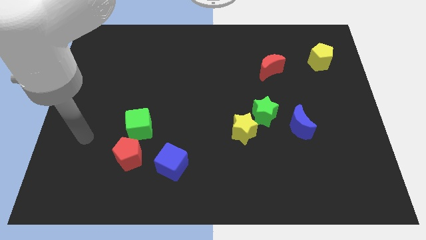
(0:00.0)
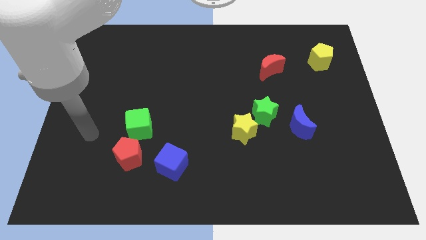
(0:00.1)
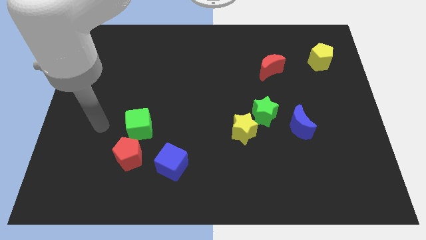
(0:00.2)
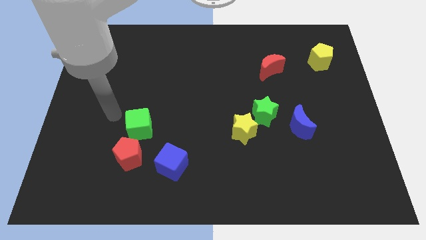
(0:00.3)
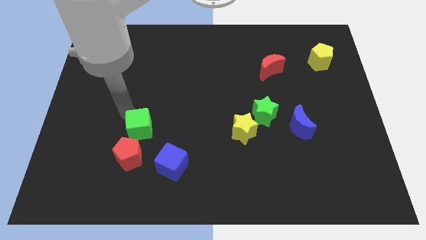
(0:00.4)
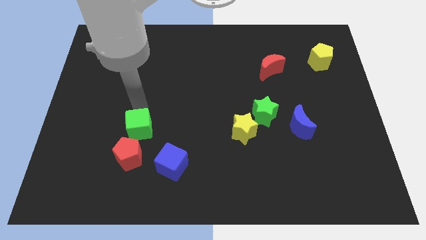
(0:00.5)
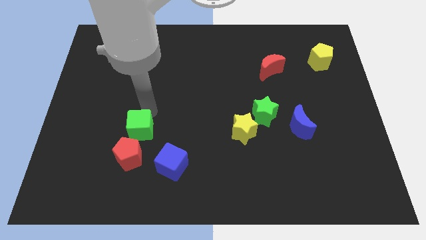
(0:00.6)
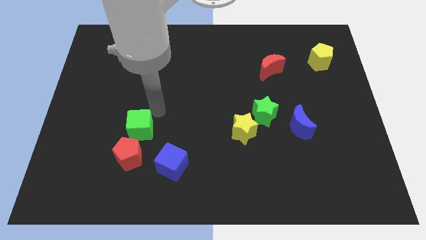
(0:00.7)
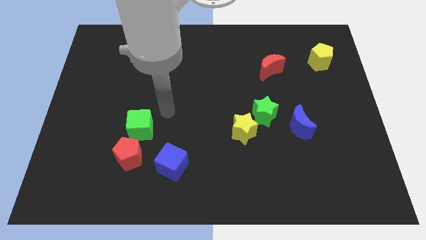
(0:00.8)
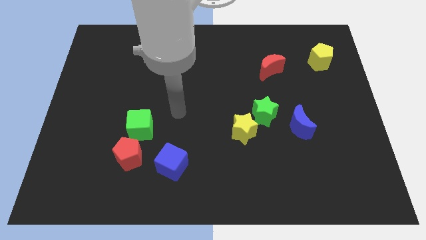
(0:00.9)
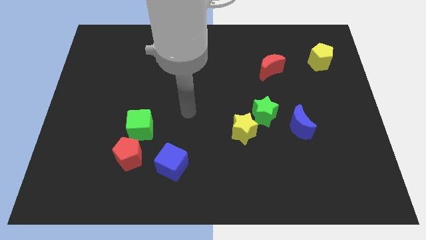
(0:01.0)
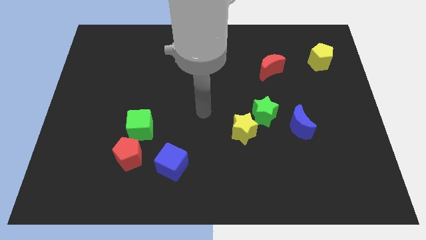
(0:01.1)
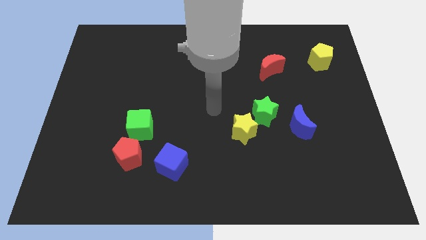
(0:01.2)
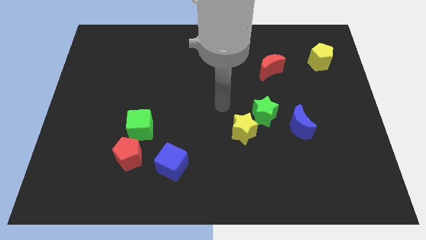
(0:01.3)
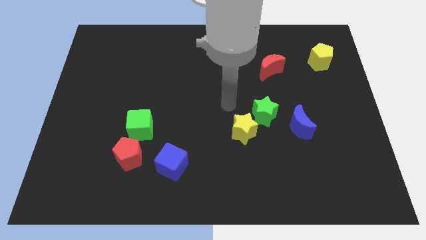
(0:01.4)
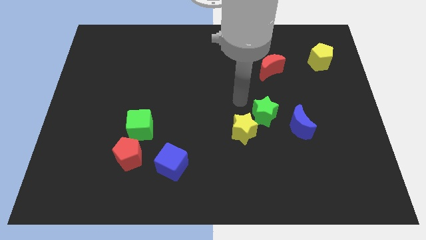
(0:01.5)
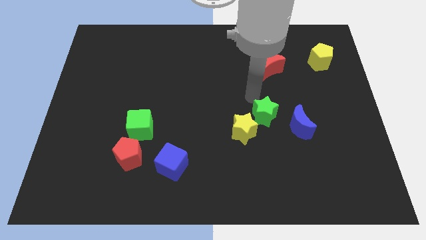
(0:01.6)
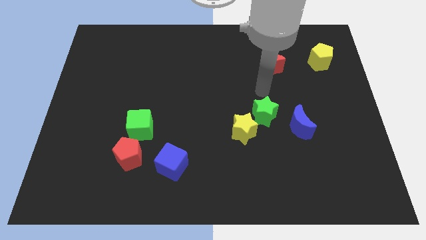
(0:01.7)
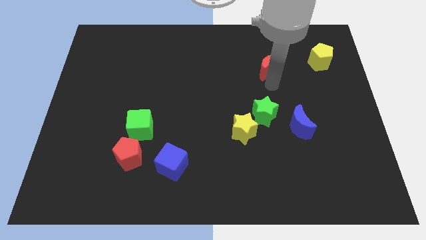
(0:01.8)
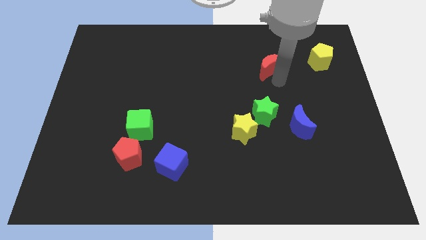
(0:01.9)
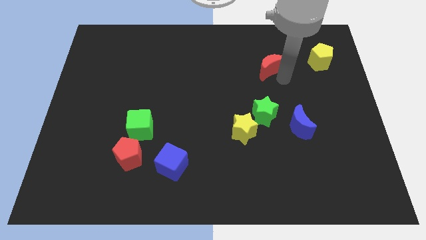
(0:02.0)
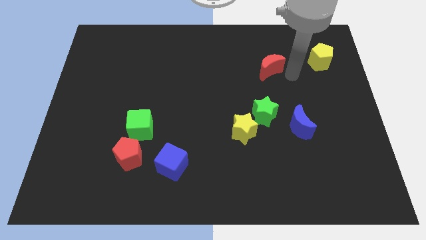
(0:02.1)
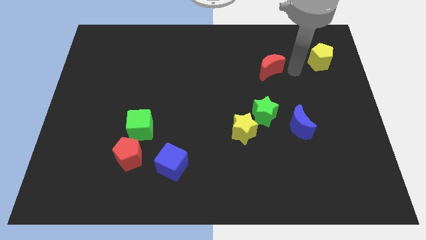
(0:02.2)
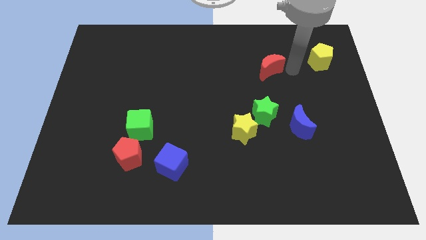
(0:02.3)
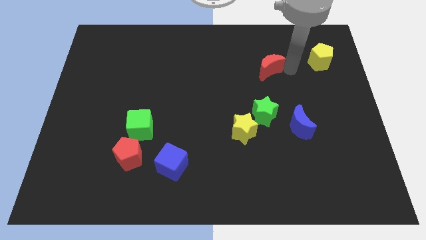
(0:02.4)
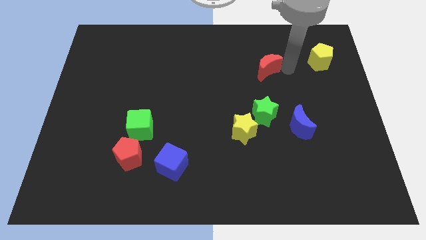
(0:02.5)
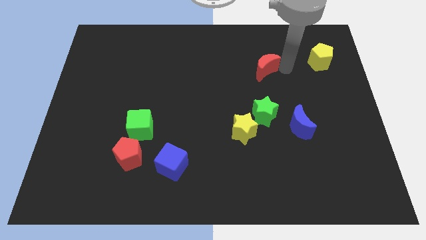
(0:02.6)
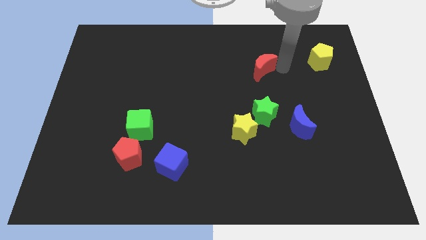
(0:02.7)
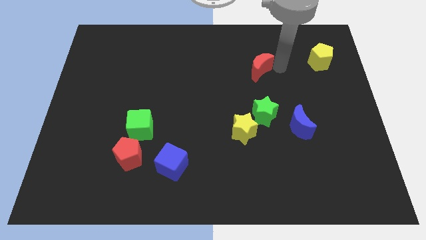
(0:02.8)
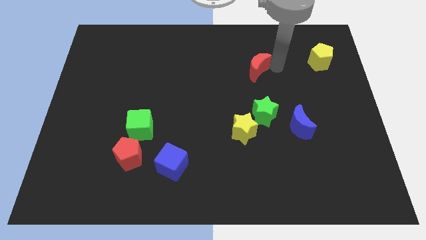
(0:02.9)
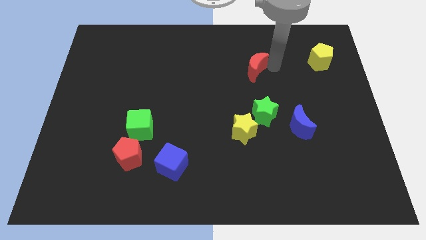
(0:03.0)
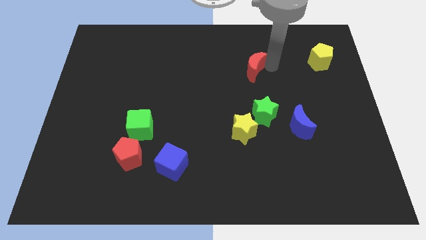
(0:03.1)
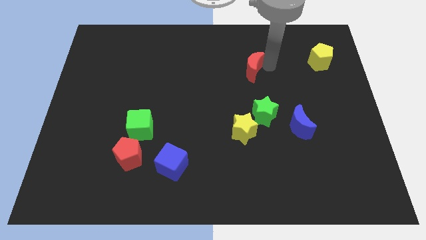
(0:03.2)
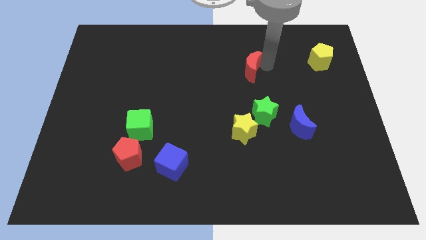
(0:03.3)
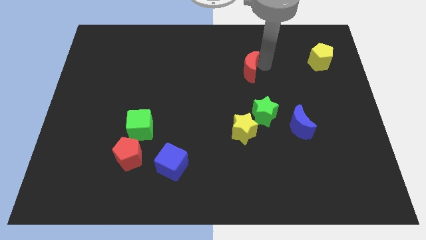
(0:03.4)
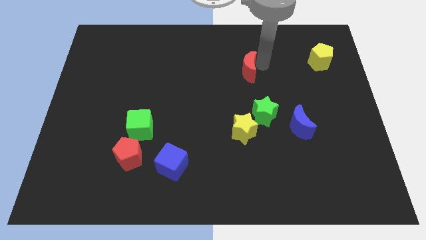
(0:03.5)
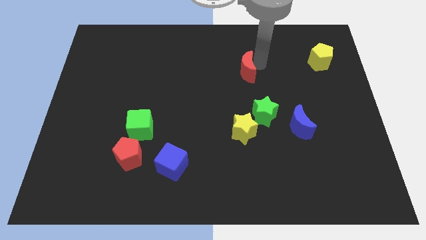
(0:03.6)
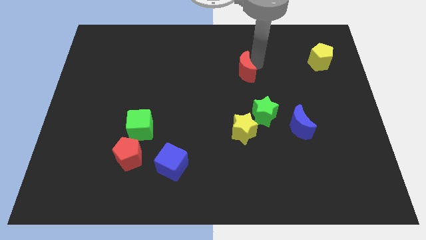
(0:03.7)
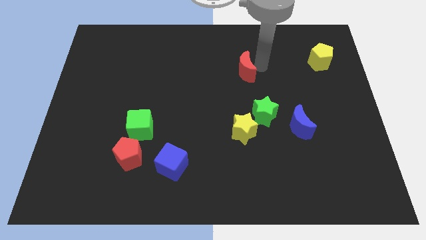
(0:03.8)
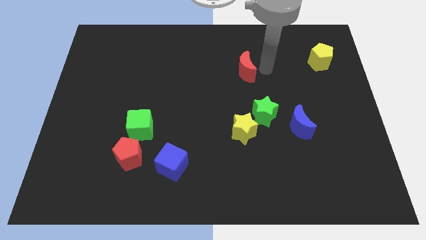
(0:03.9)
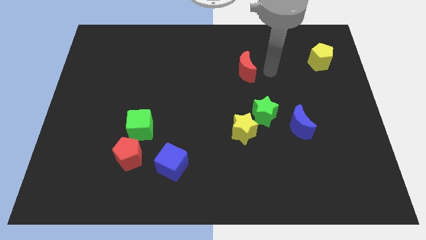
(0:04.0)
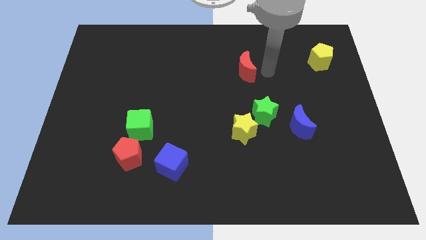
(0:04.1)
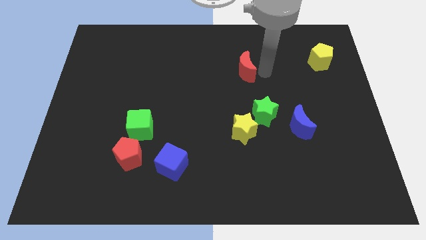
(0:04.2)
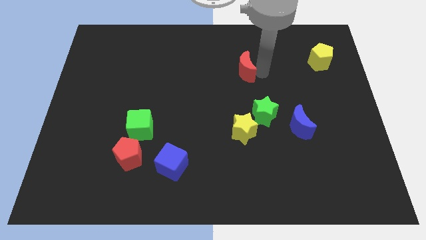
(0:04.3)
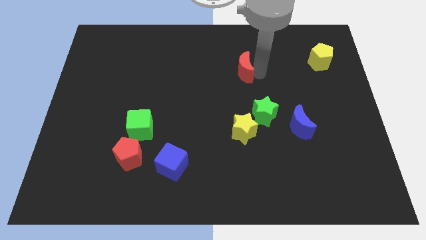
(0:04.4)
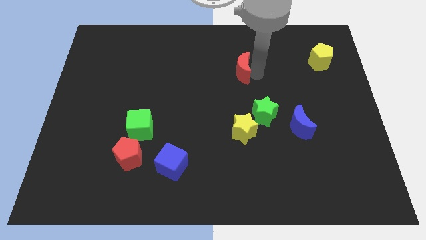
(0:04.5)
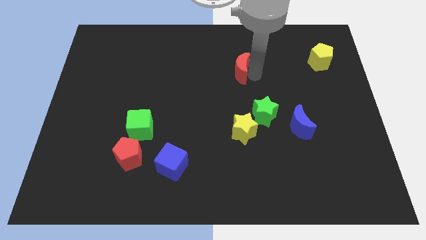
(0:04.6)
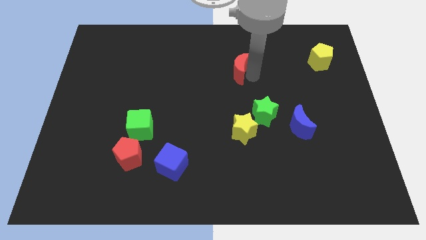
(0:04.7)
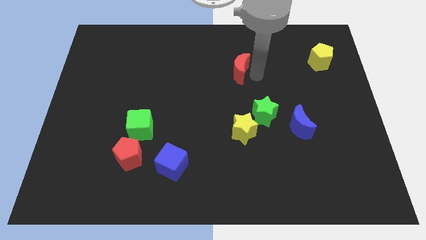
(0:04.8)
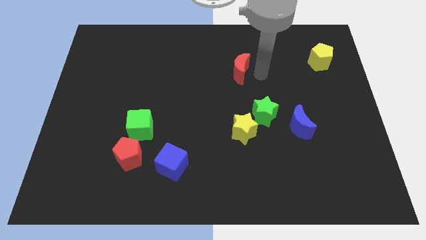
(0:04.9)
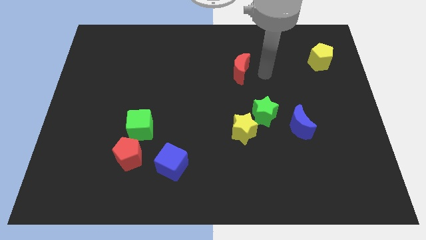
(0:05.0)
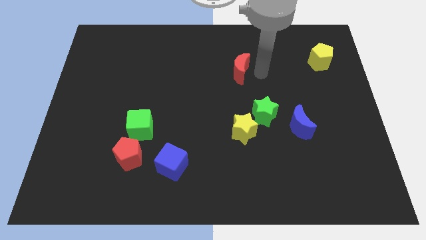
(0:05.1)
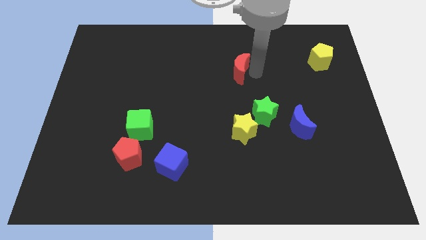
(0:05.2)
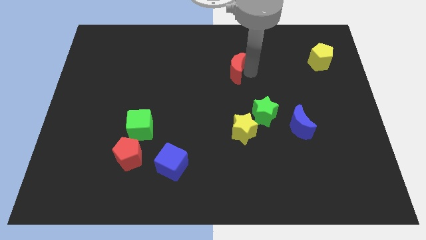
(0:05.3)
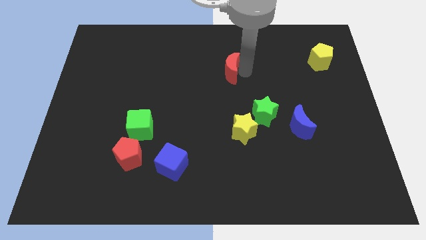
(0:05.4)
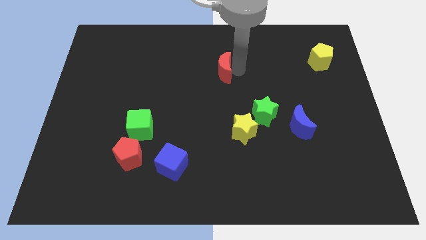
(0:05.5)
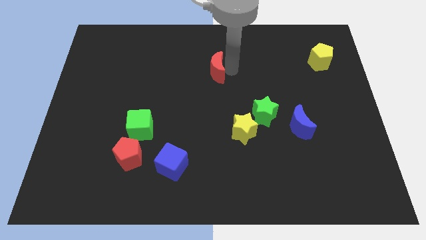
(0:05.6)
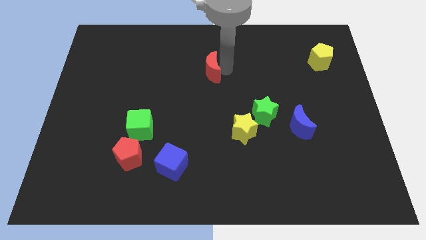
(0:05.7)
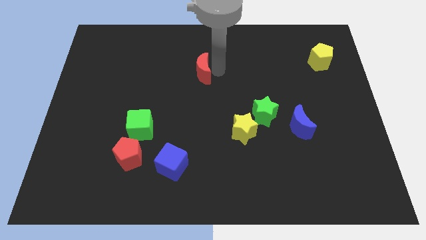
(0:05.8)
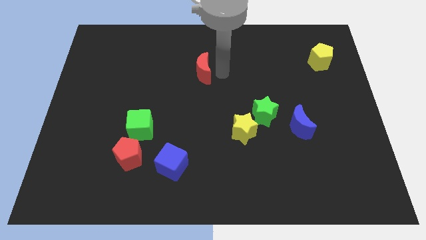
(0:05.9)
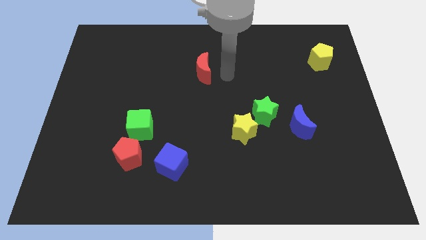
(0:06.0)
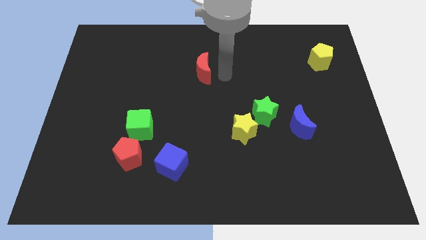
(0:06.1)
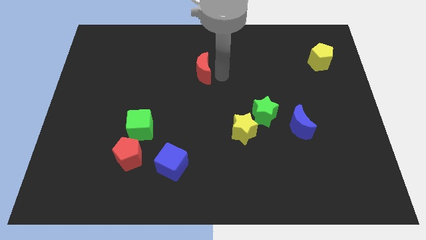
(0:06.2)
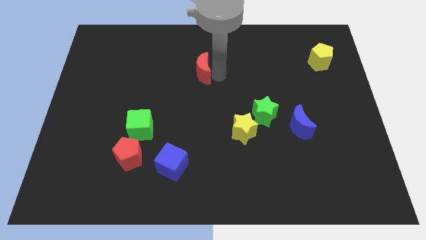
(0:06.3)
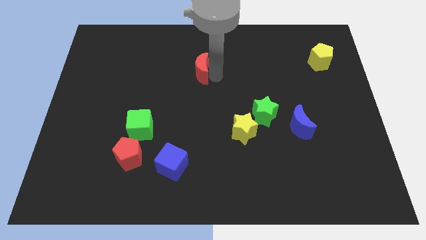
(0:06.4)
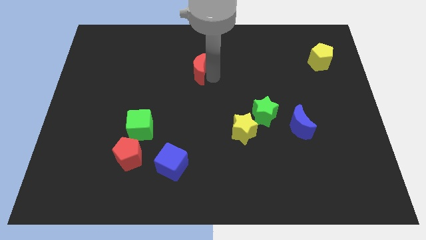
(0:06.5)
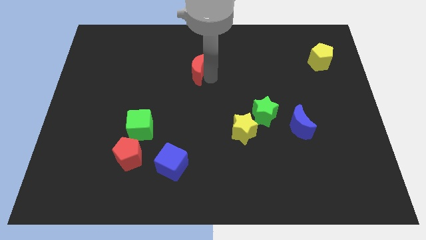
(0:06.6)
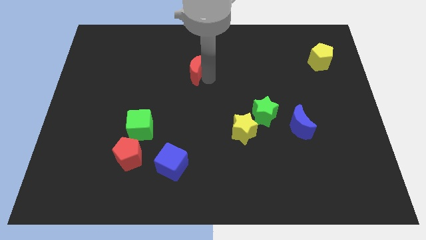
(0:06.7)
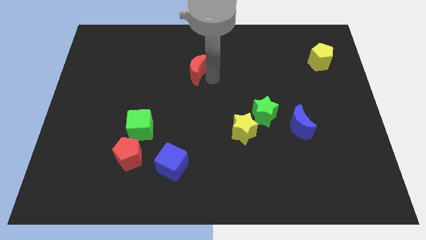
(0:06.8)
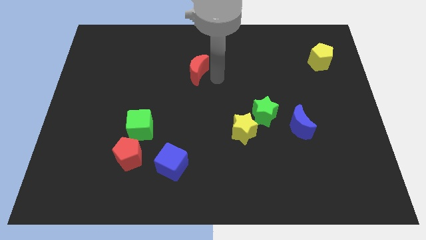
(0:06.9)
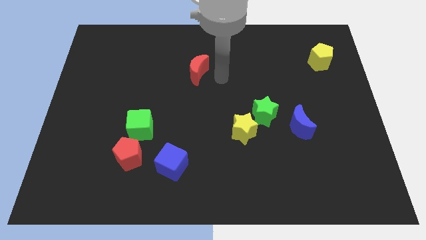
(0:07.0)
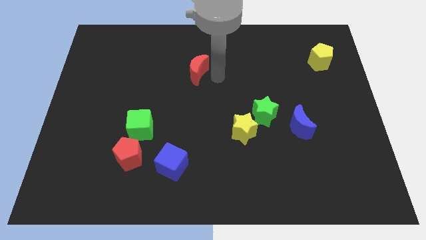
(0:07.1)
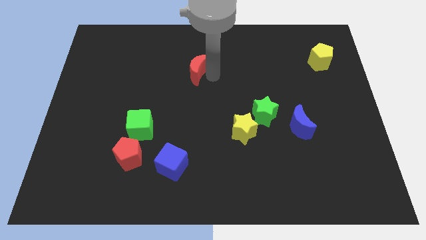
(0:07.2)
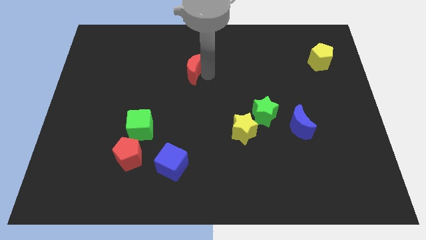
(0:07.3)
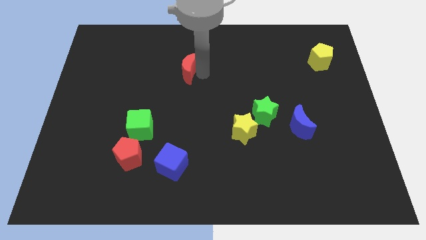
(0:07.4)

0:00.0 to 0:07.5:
push the red moon left
